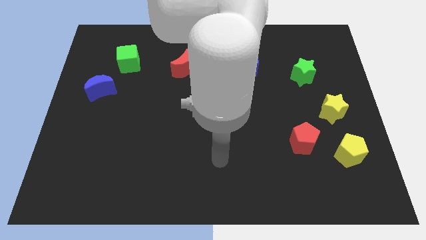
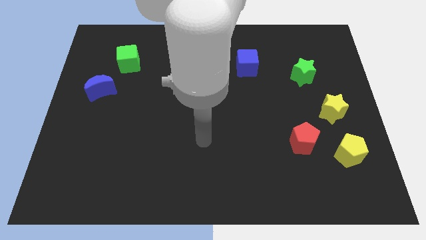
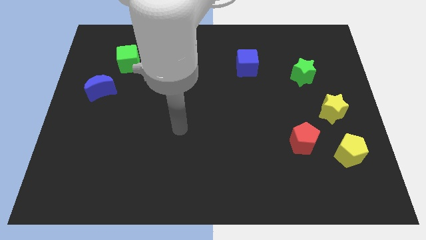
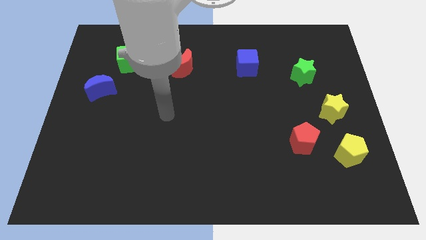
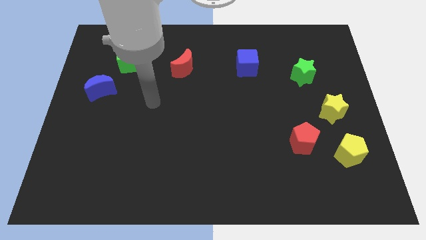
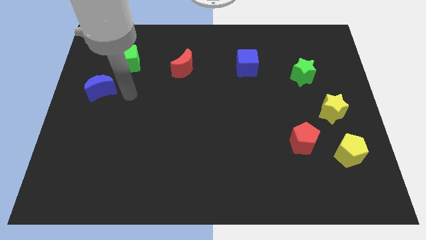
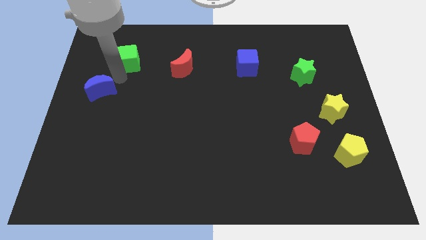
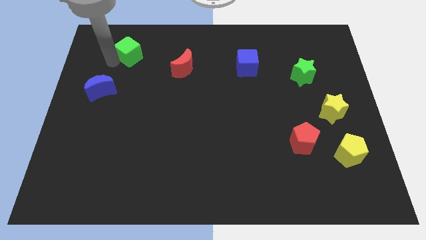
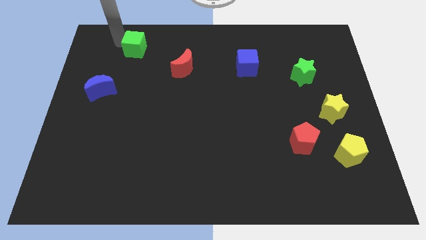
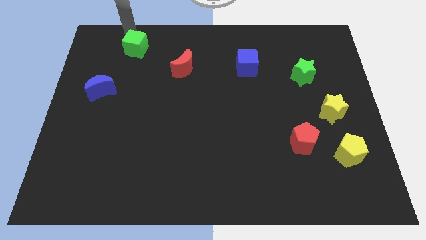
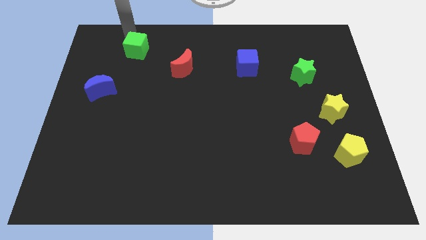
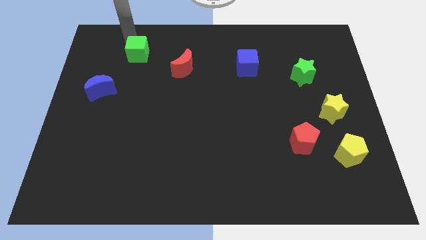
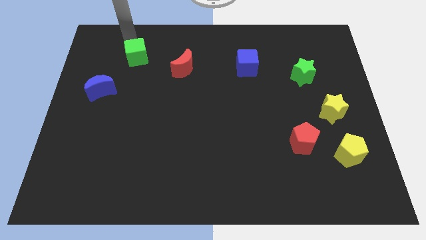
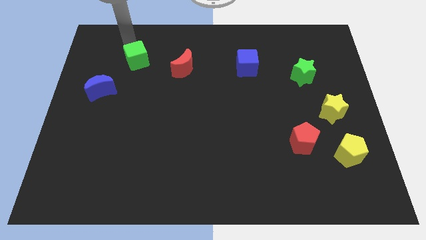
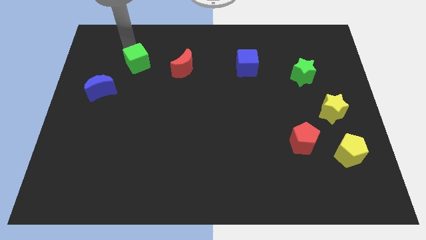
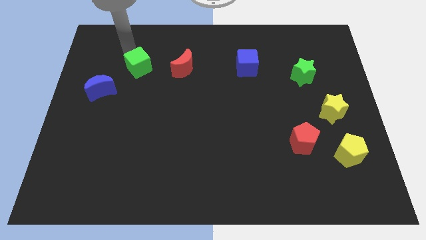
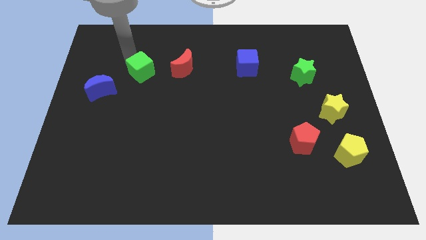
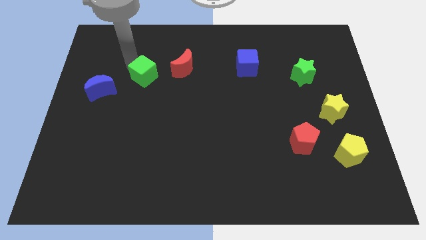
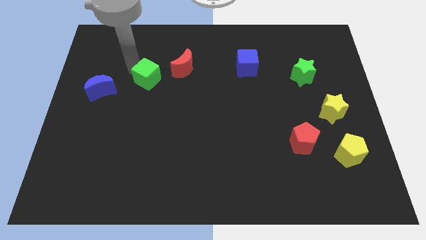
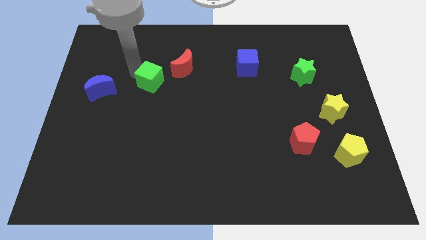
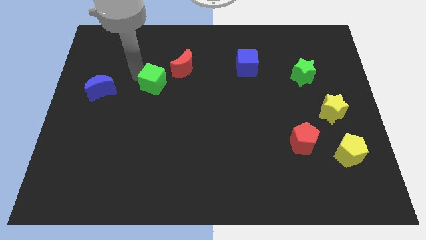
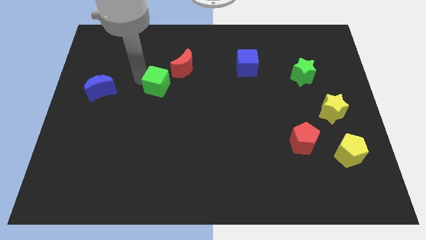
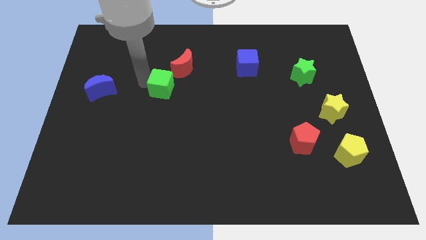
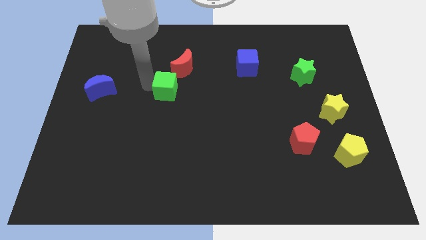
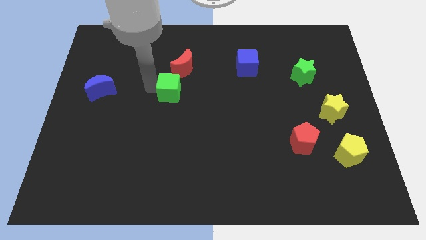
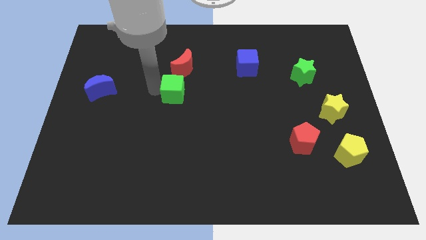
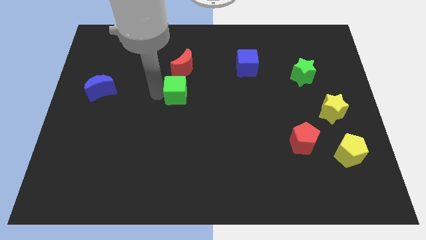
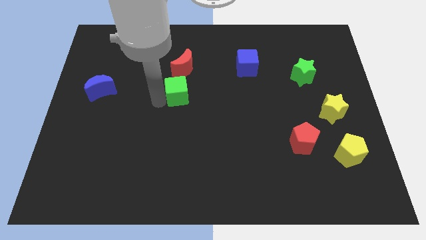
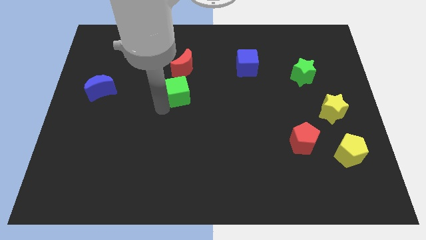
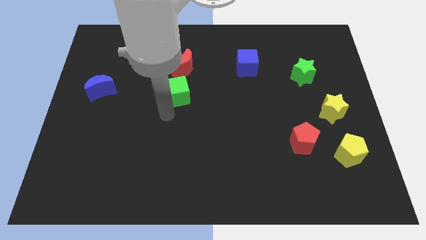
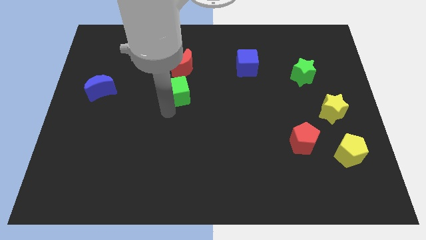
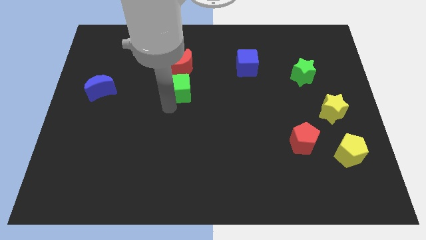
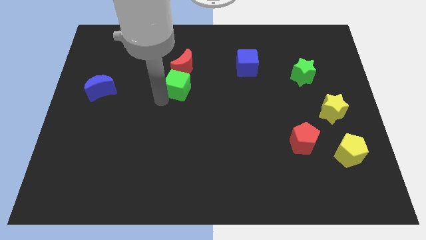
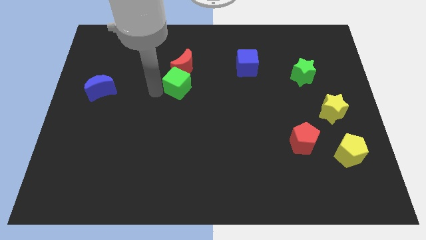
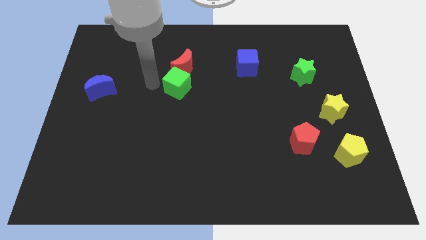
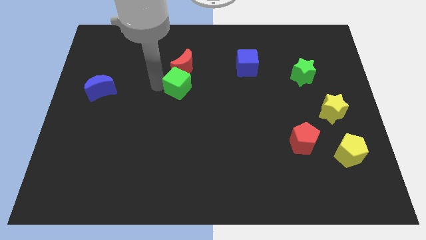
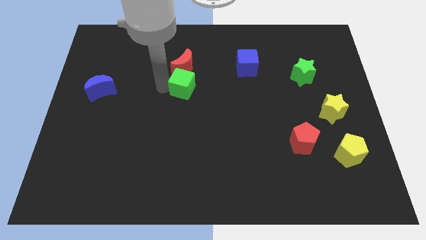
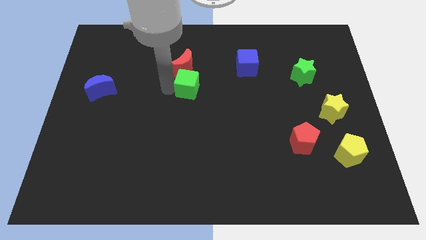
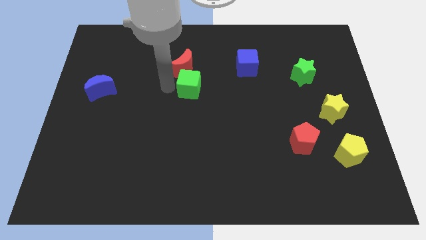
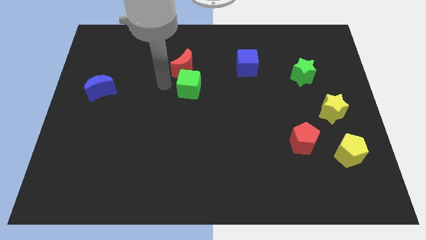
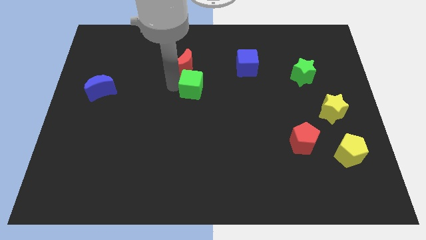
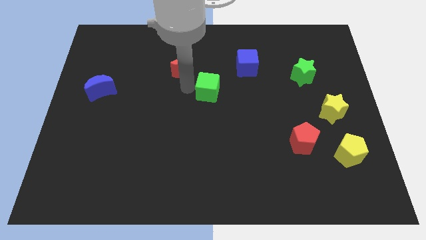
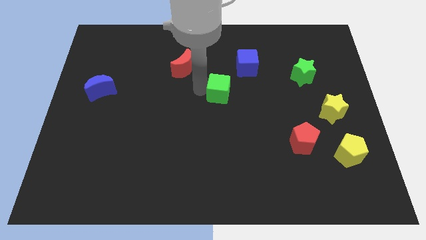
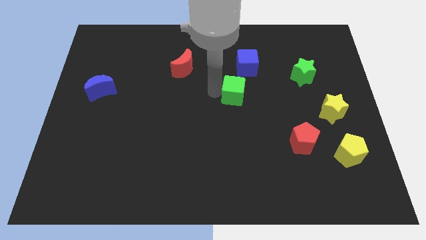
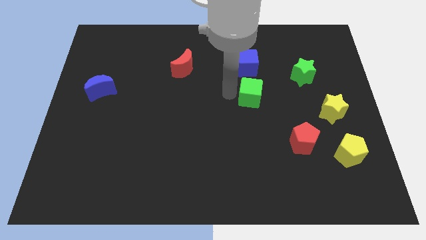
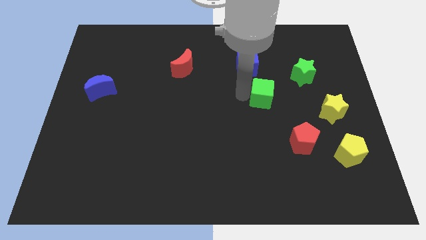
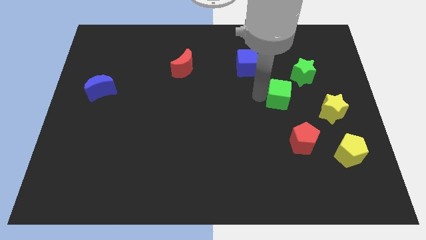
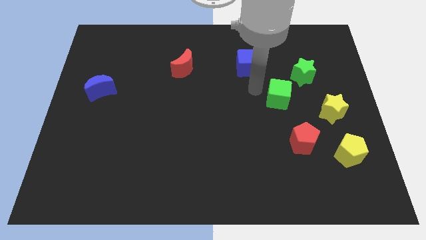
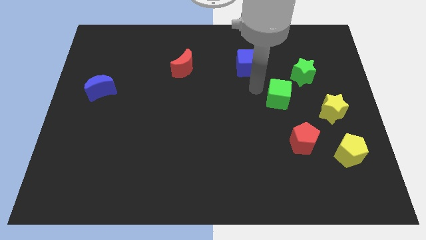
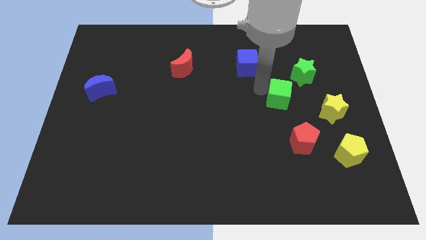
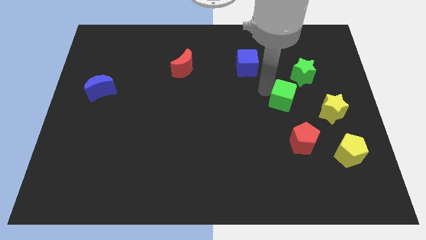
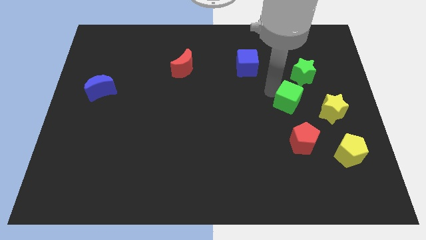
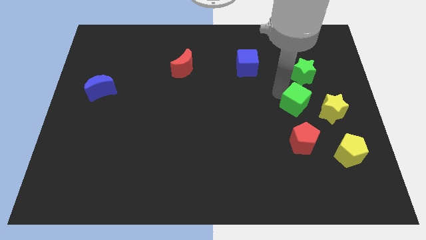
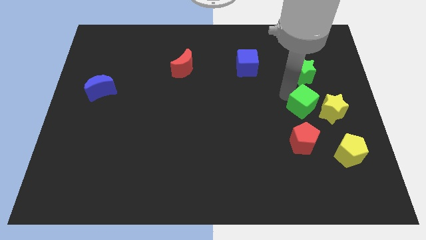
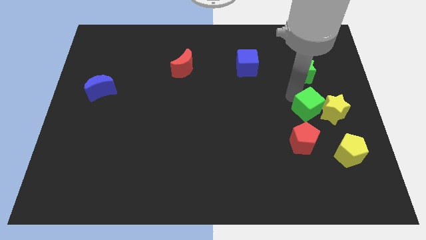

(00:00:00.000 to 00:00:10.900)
slide the green cube to the top right side of the red pentagon
